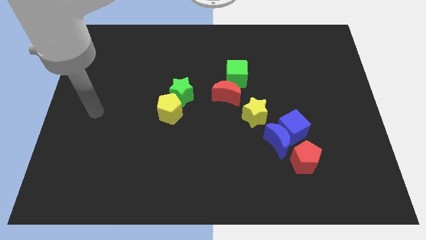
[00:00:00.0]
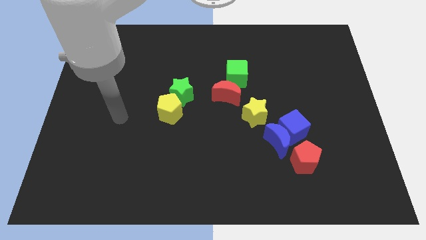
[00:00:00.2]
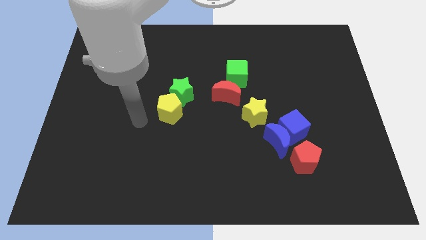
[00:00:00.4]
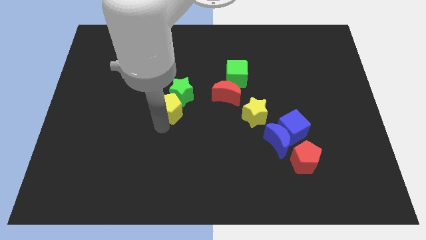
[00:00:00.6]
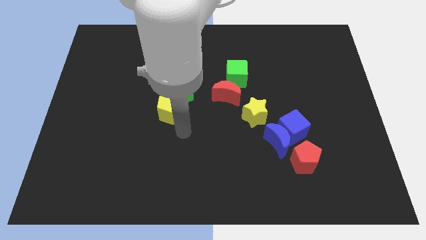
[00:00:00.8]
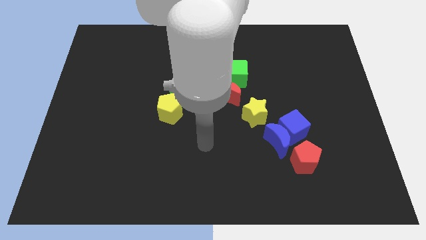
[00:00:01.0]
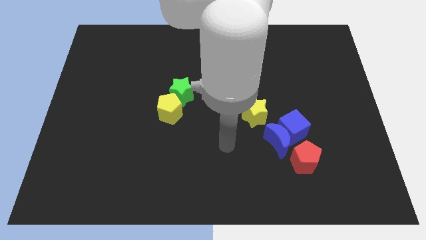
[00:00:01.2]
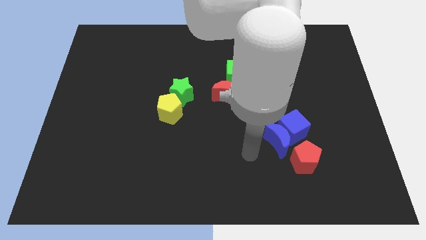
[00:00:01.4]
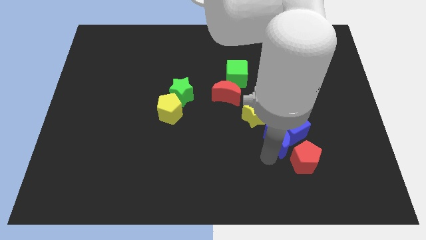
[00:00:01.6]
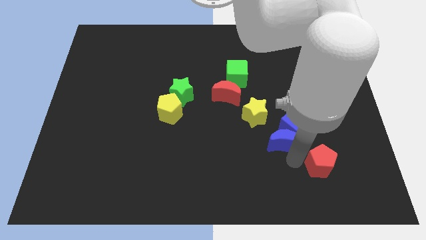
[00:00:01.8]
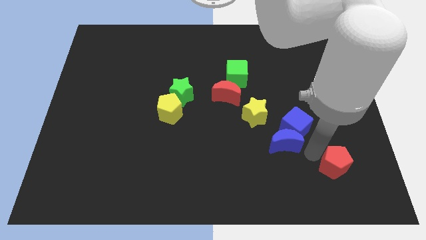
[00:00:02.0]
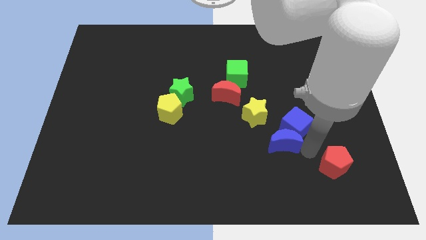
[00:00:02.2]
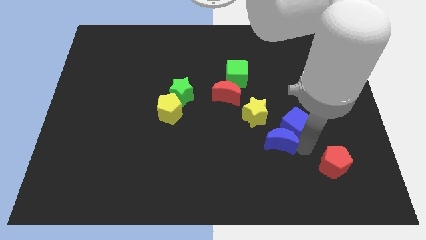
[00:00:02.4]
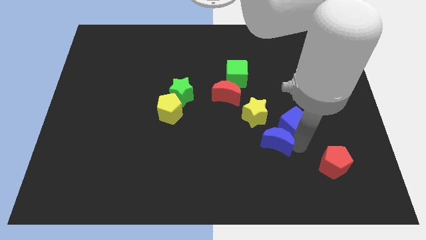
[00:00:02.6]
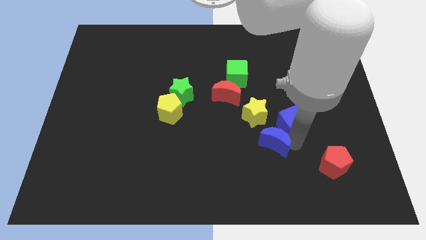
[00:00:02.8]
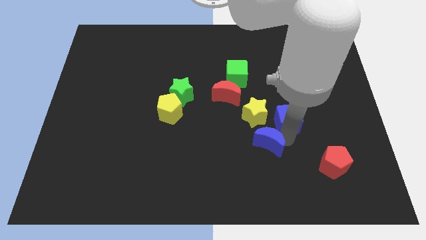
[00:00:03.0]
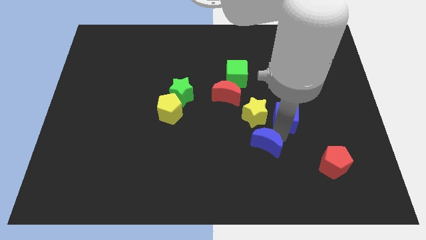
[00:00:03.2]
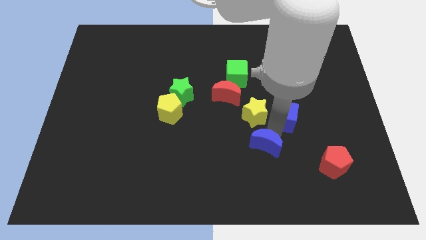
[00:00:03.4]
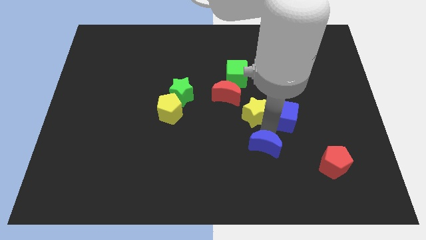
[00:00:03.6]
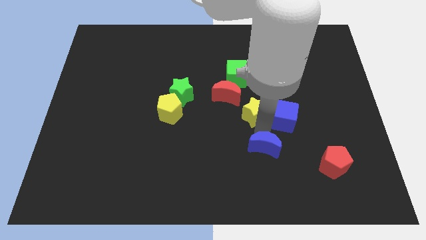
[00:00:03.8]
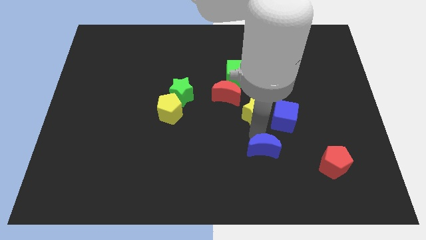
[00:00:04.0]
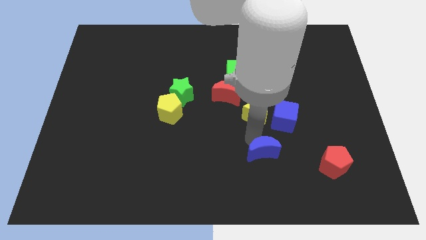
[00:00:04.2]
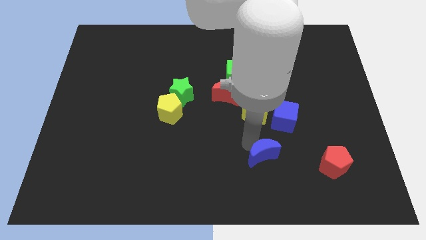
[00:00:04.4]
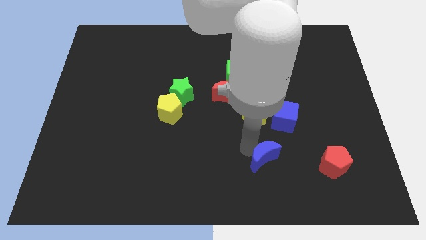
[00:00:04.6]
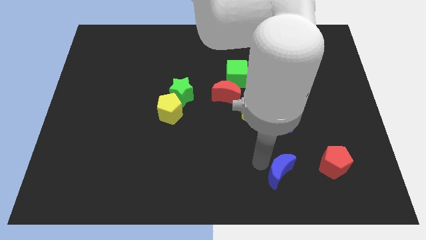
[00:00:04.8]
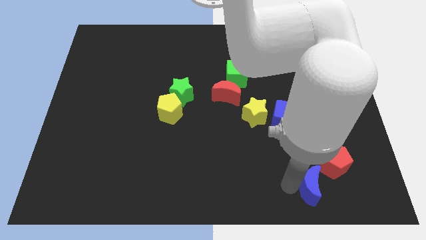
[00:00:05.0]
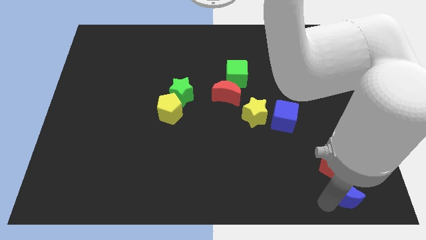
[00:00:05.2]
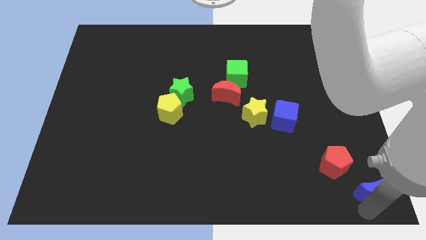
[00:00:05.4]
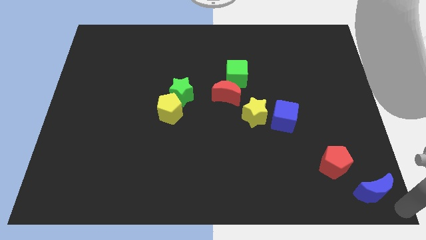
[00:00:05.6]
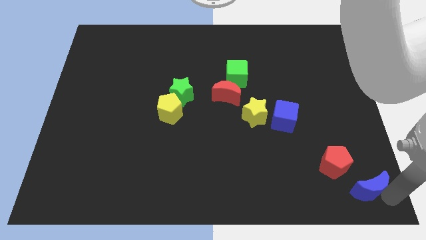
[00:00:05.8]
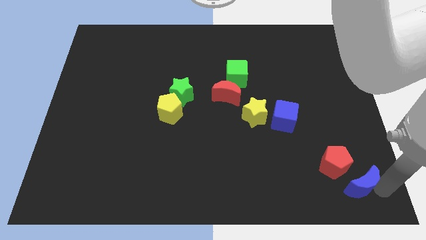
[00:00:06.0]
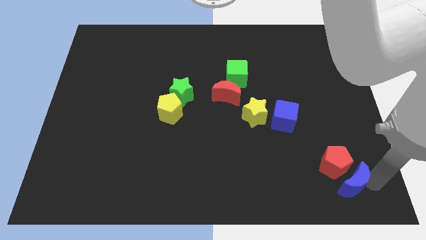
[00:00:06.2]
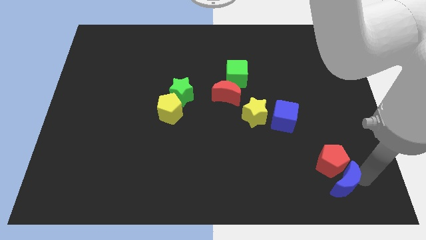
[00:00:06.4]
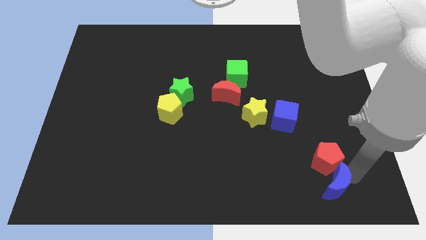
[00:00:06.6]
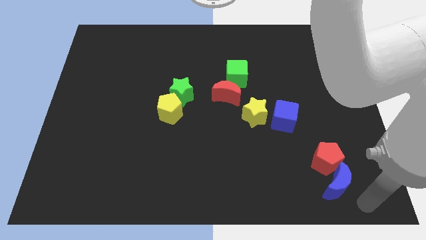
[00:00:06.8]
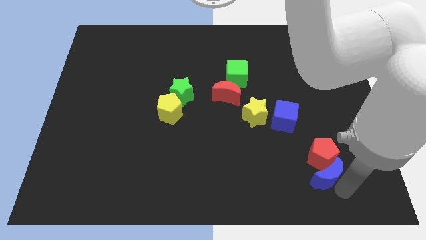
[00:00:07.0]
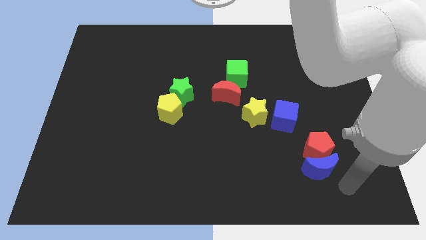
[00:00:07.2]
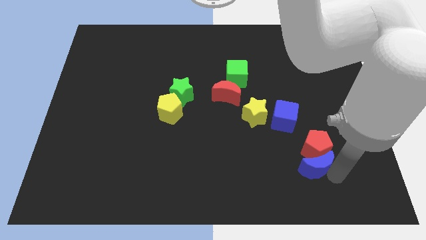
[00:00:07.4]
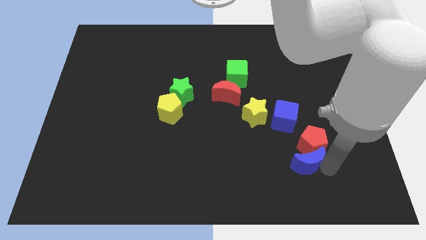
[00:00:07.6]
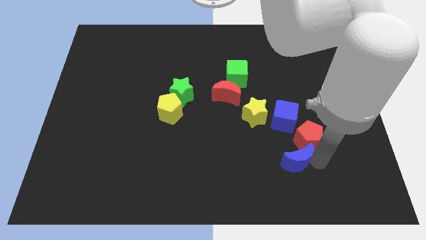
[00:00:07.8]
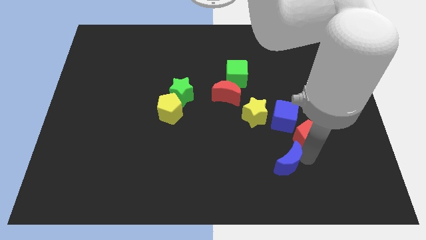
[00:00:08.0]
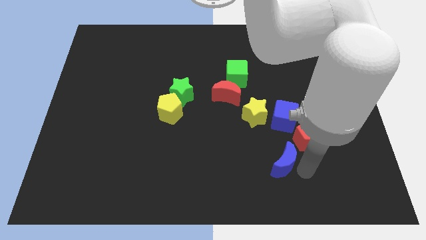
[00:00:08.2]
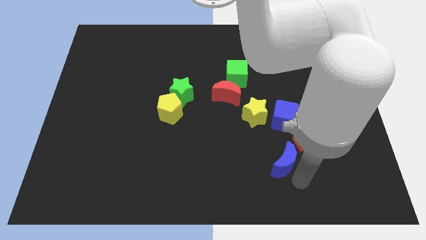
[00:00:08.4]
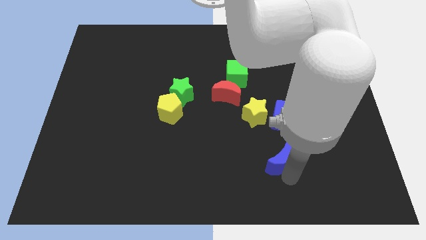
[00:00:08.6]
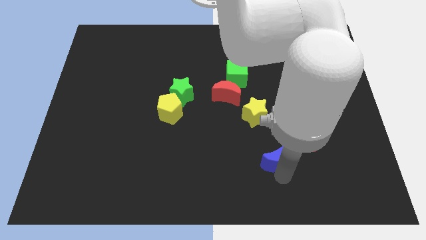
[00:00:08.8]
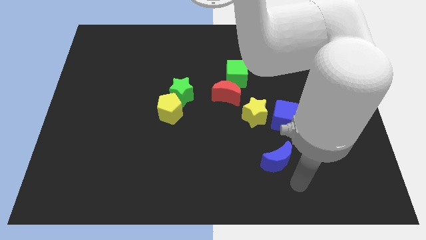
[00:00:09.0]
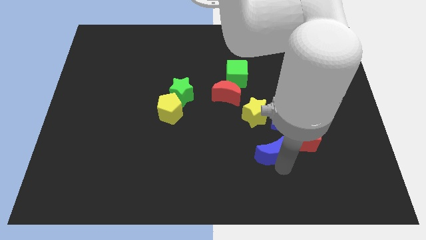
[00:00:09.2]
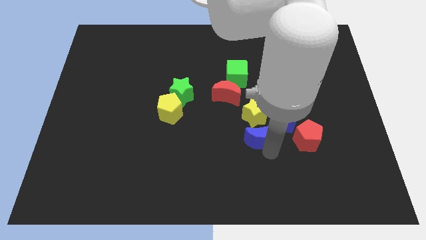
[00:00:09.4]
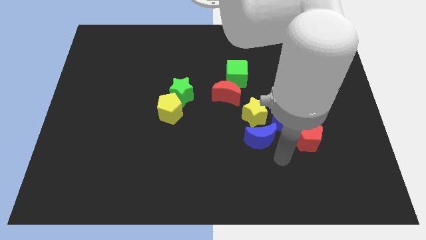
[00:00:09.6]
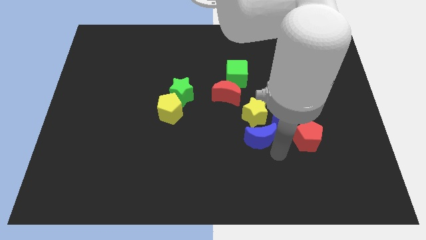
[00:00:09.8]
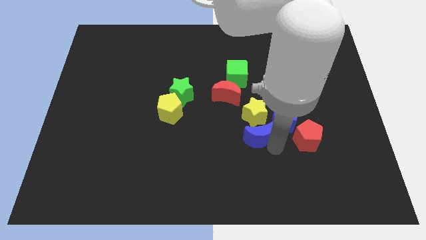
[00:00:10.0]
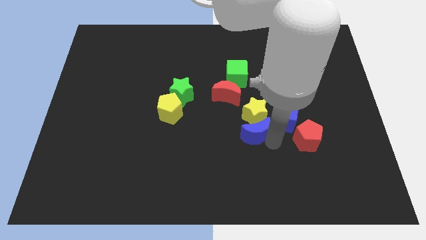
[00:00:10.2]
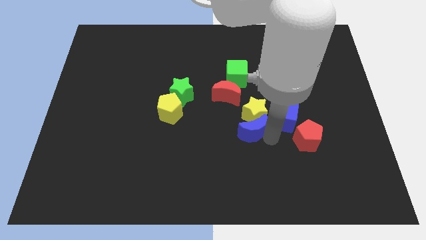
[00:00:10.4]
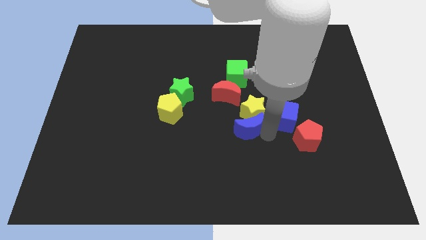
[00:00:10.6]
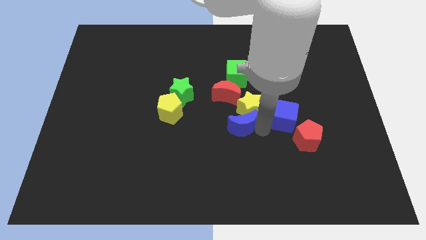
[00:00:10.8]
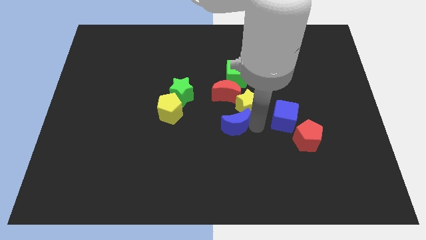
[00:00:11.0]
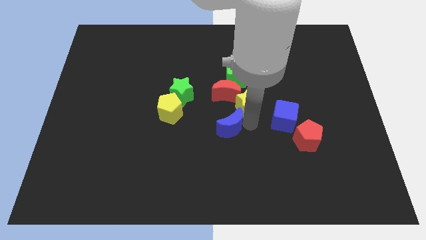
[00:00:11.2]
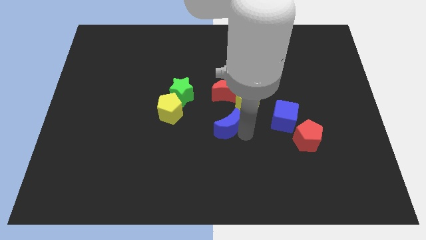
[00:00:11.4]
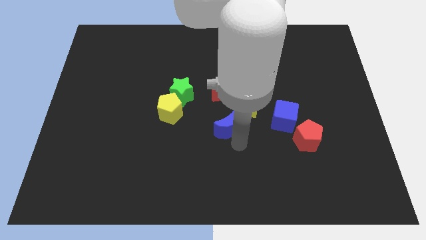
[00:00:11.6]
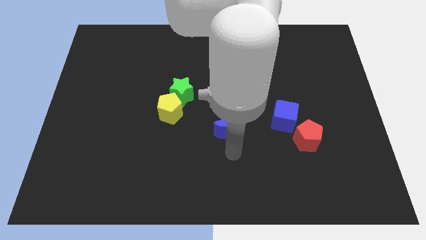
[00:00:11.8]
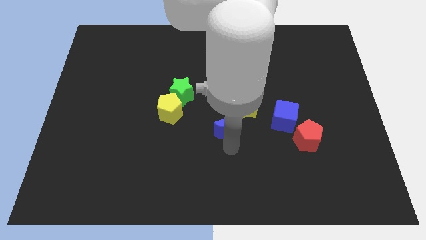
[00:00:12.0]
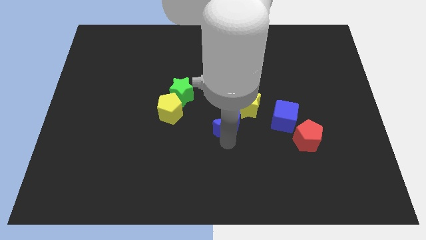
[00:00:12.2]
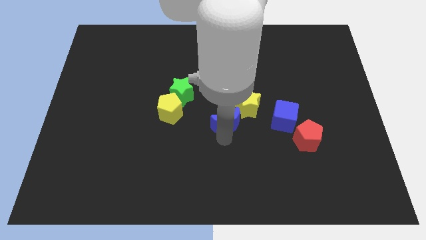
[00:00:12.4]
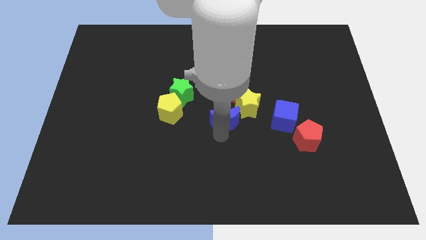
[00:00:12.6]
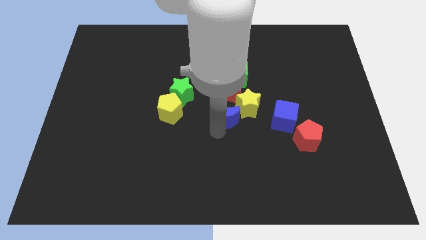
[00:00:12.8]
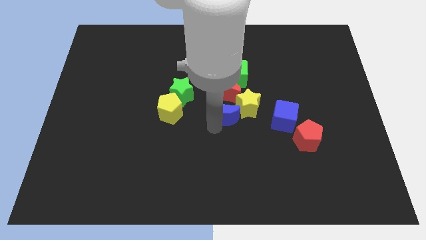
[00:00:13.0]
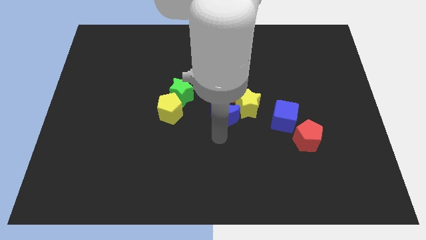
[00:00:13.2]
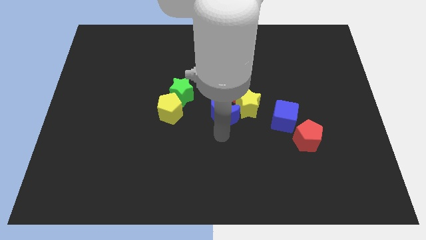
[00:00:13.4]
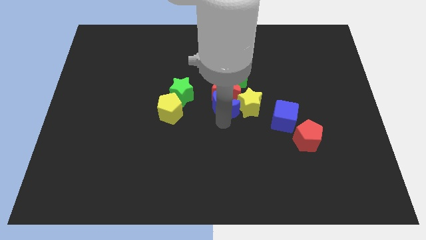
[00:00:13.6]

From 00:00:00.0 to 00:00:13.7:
slide the blue moon to the red moon
